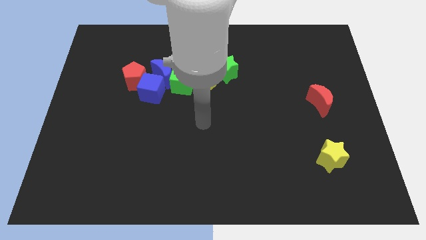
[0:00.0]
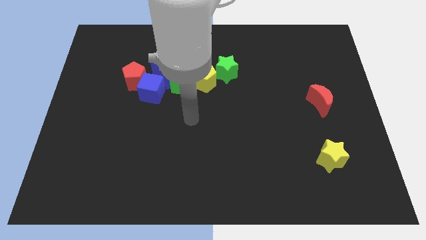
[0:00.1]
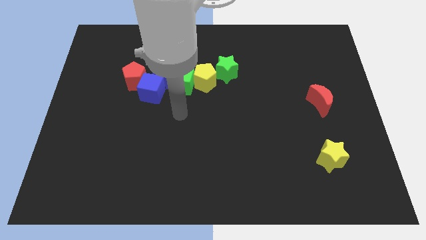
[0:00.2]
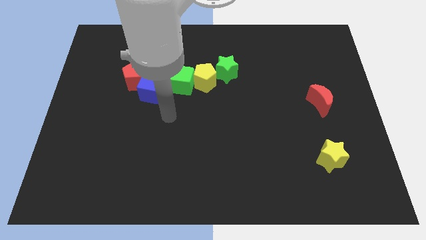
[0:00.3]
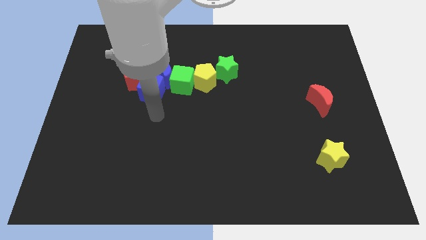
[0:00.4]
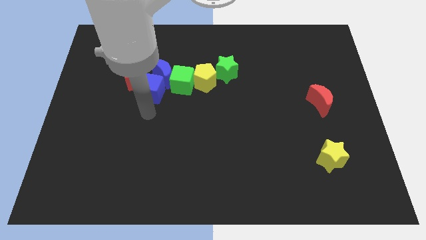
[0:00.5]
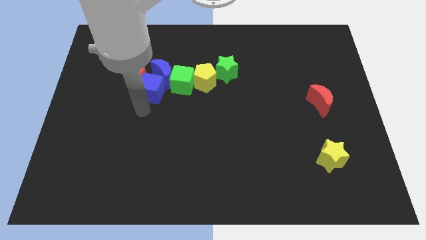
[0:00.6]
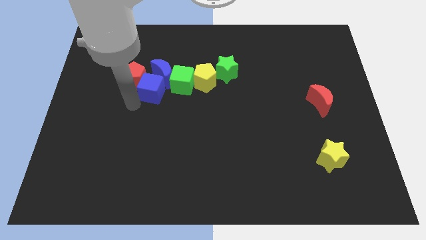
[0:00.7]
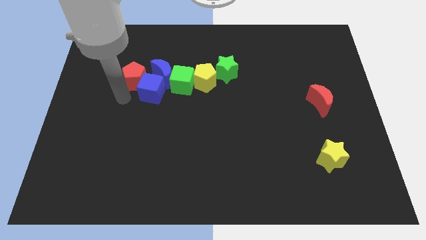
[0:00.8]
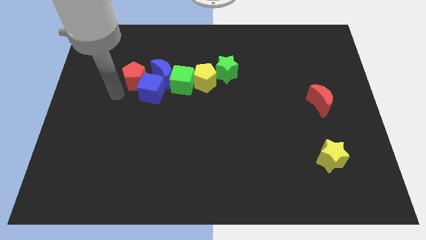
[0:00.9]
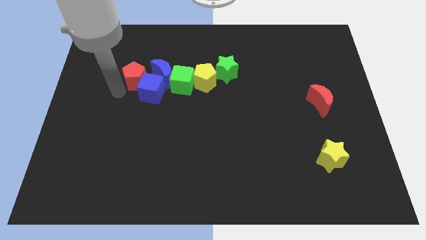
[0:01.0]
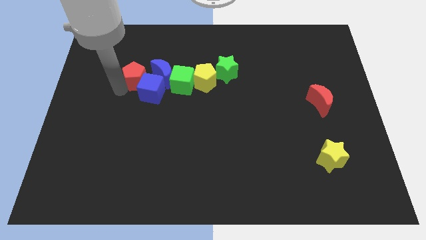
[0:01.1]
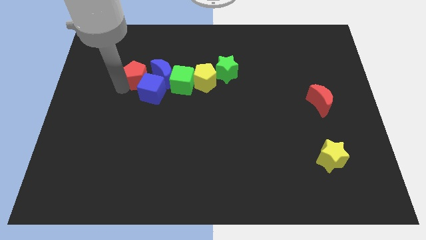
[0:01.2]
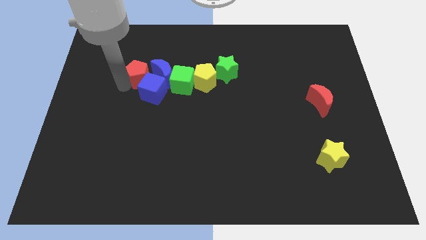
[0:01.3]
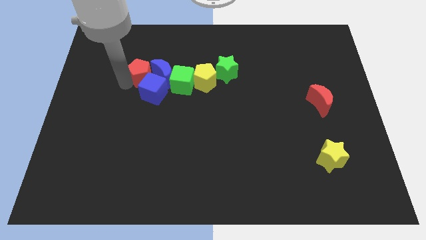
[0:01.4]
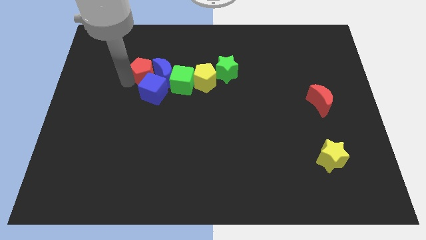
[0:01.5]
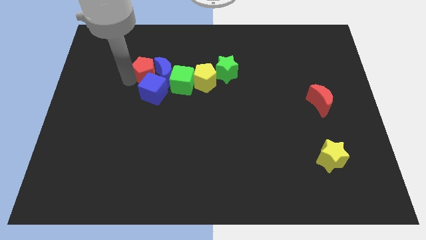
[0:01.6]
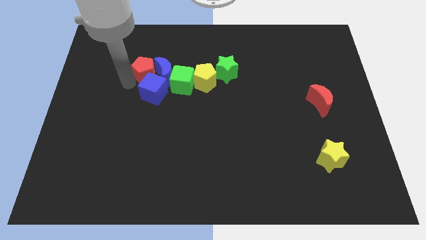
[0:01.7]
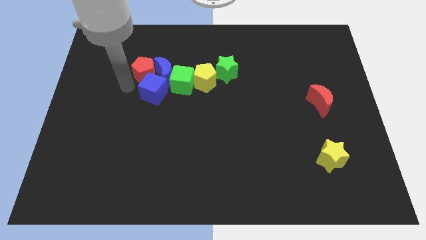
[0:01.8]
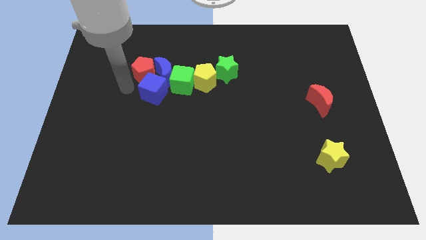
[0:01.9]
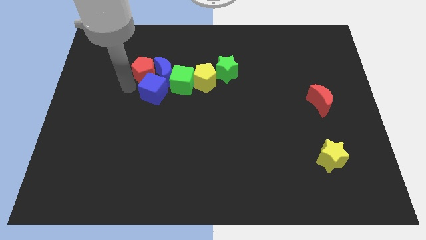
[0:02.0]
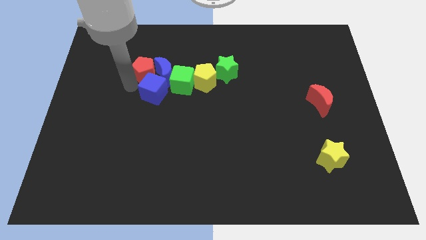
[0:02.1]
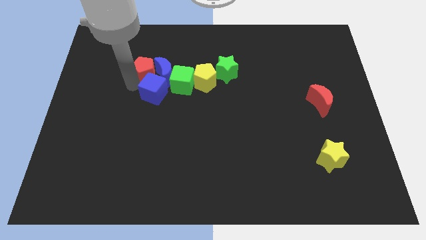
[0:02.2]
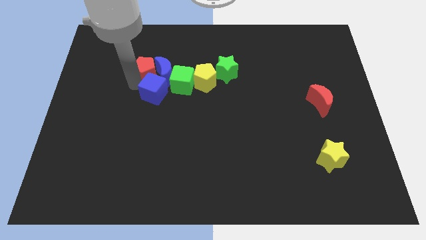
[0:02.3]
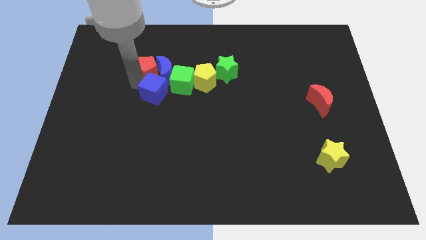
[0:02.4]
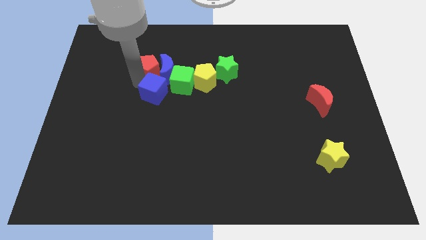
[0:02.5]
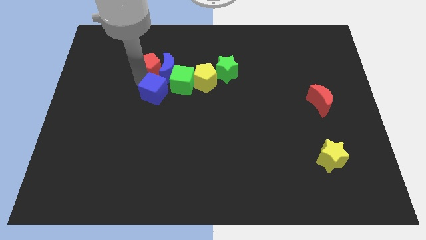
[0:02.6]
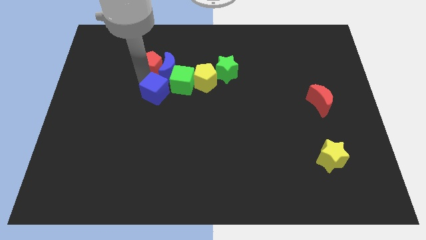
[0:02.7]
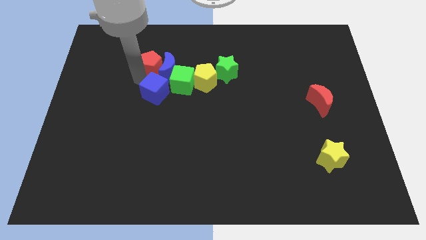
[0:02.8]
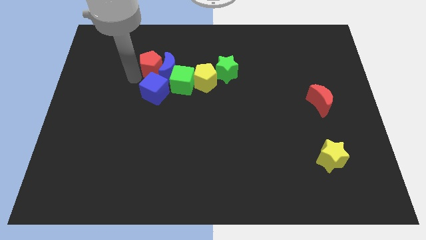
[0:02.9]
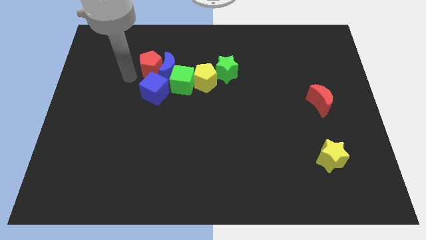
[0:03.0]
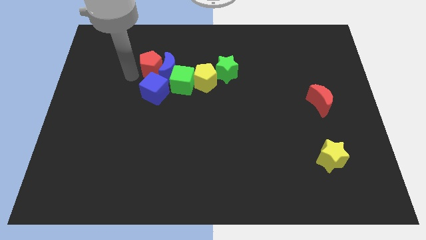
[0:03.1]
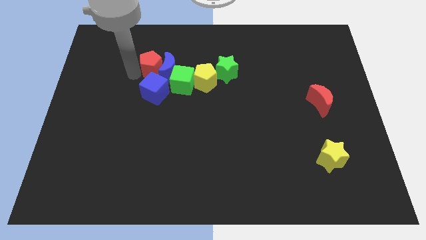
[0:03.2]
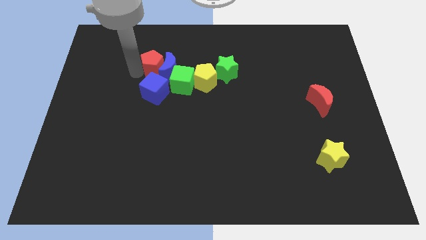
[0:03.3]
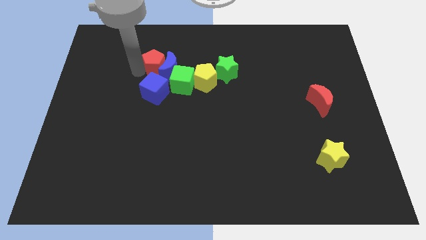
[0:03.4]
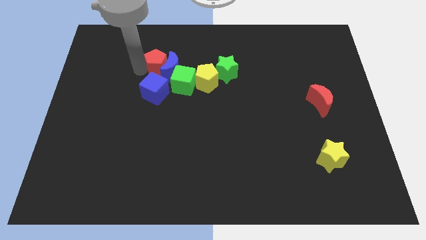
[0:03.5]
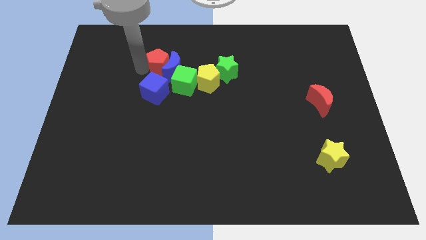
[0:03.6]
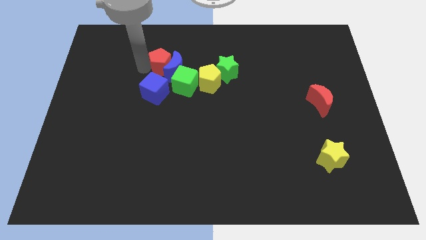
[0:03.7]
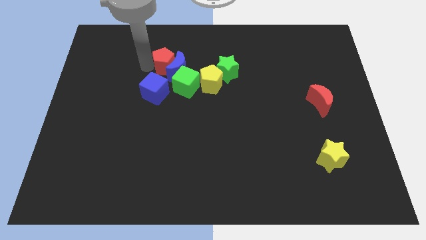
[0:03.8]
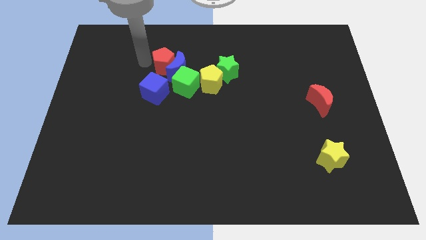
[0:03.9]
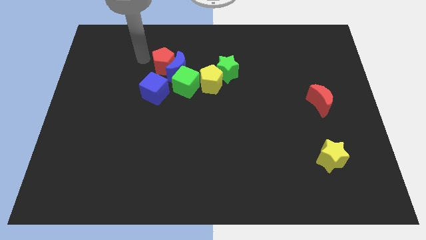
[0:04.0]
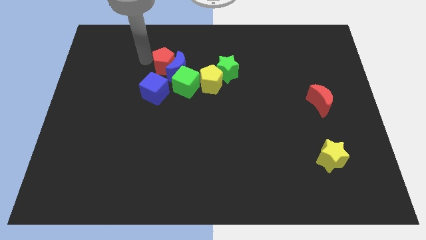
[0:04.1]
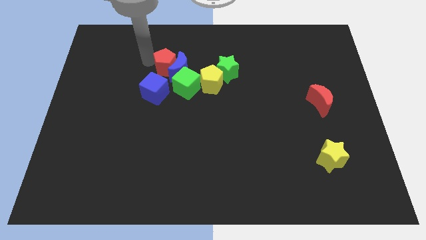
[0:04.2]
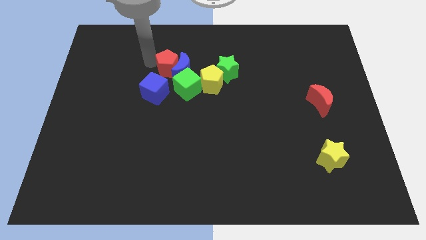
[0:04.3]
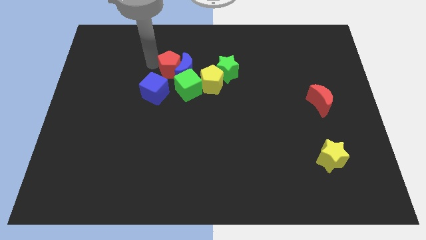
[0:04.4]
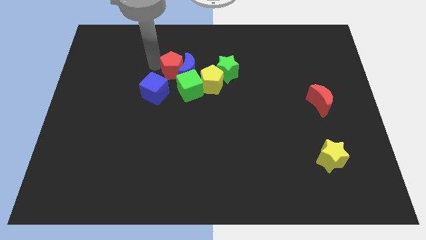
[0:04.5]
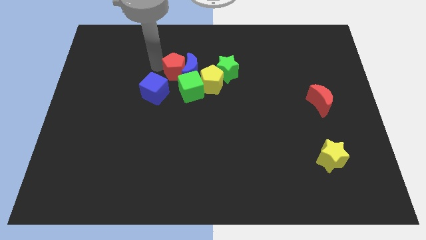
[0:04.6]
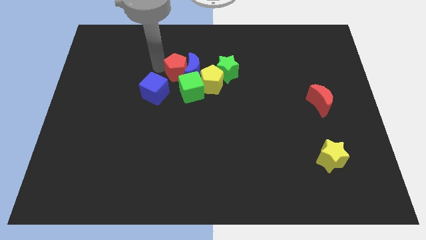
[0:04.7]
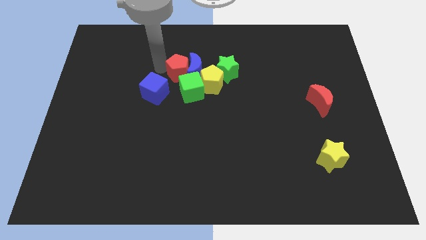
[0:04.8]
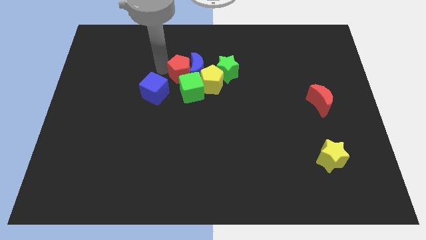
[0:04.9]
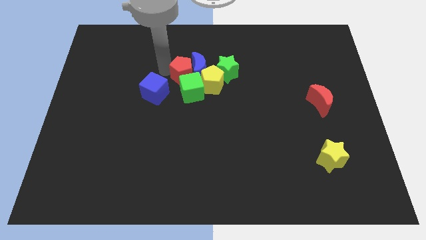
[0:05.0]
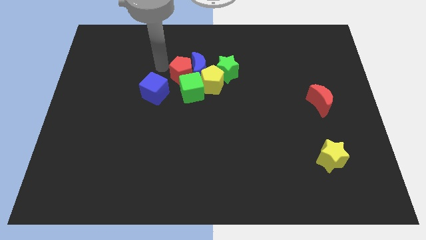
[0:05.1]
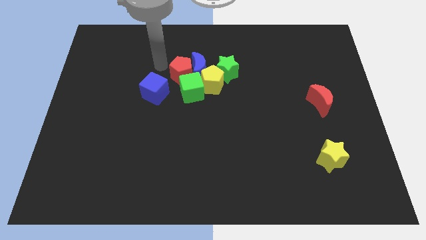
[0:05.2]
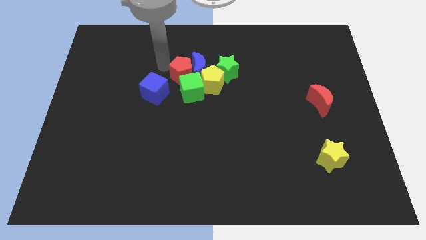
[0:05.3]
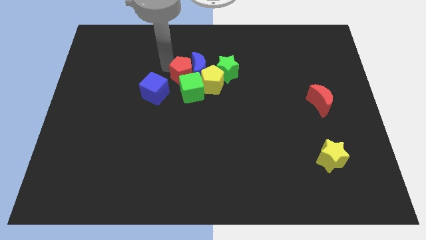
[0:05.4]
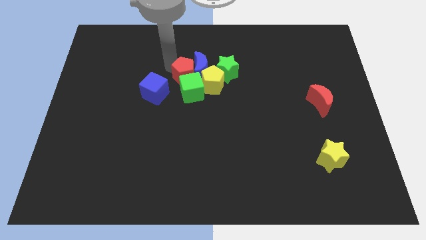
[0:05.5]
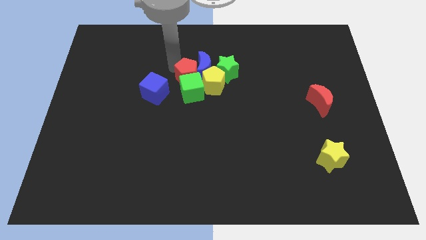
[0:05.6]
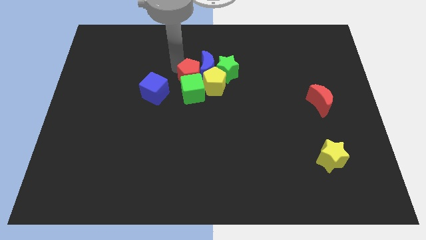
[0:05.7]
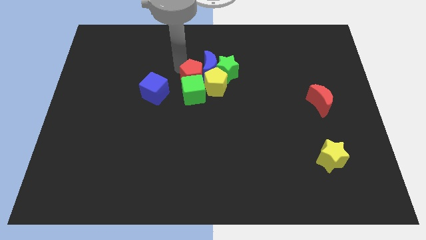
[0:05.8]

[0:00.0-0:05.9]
slide the red pentagon close to the yellow pentagon

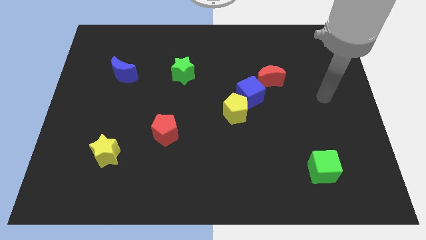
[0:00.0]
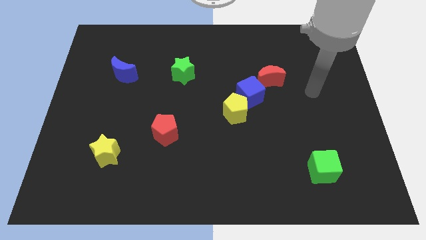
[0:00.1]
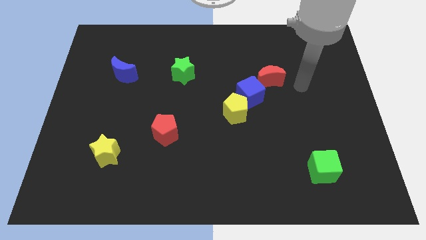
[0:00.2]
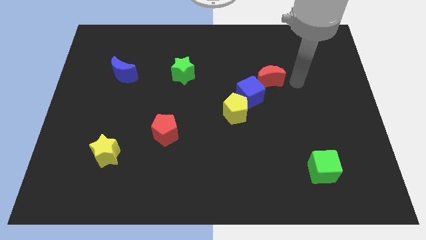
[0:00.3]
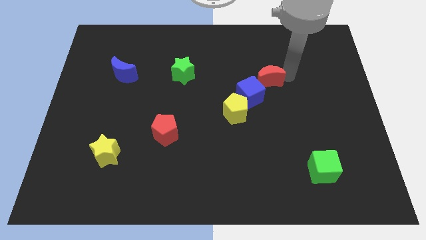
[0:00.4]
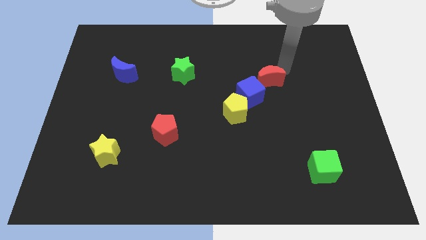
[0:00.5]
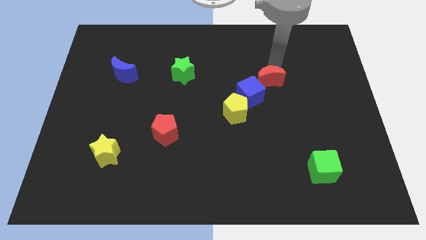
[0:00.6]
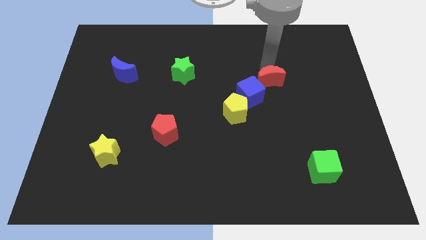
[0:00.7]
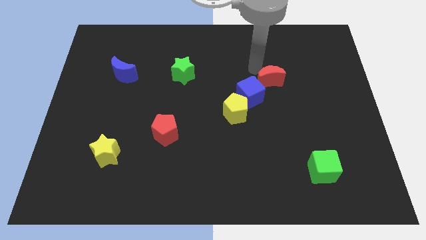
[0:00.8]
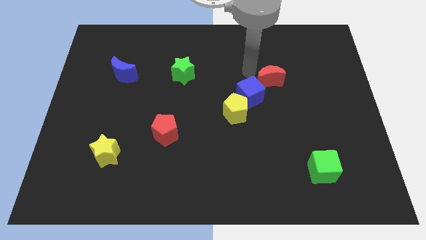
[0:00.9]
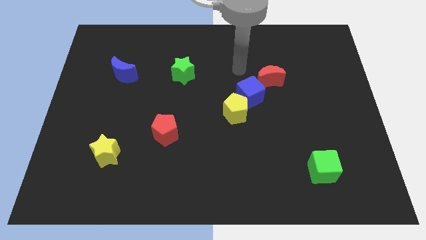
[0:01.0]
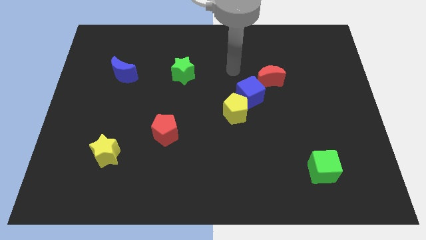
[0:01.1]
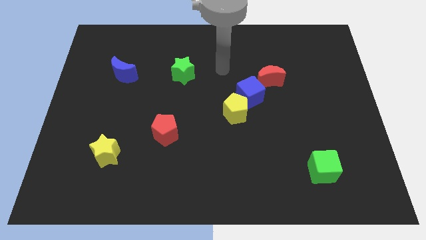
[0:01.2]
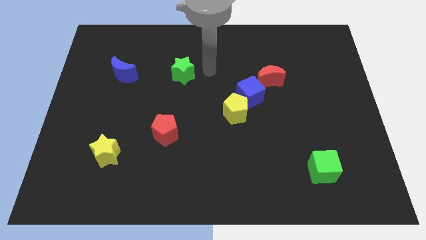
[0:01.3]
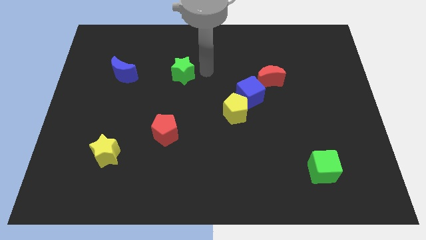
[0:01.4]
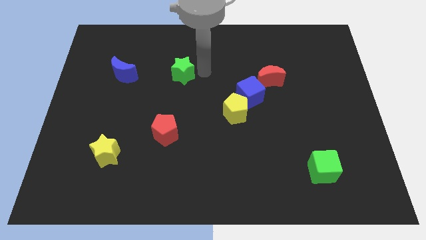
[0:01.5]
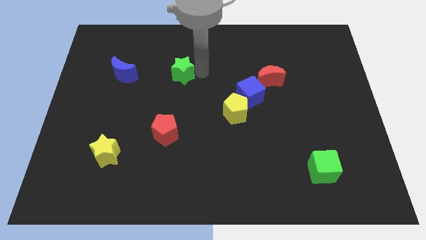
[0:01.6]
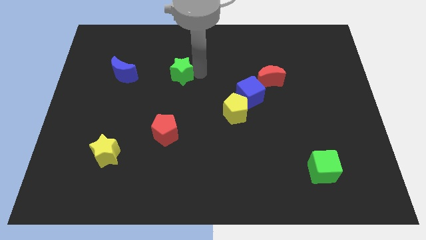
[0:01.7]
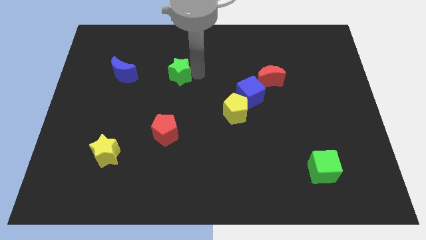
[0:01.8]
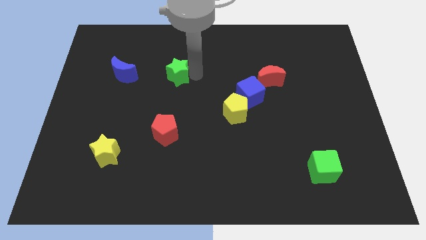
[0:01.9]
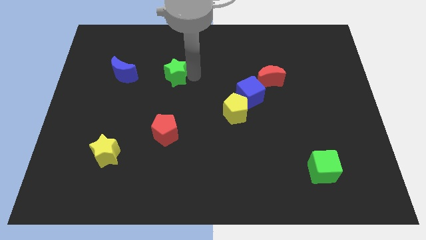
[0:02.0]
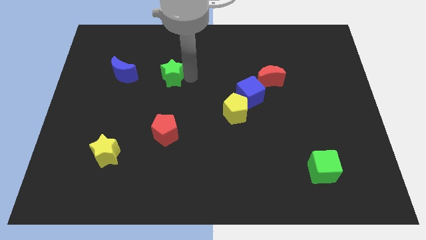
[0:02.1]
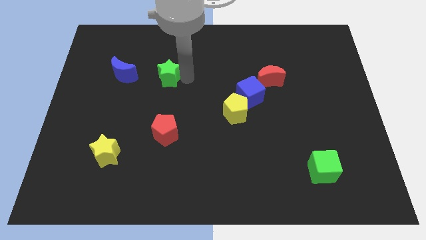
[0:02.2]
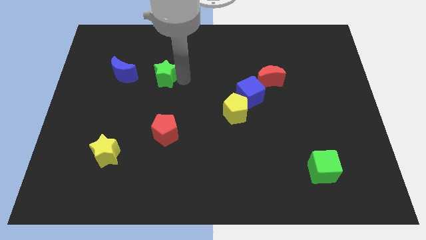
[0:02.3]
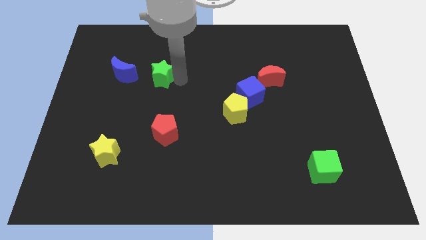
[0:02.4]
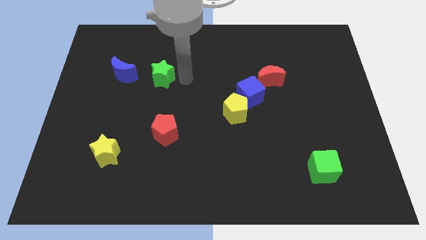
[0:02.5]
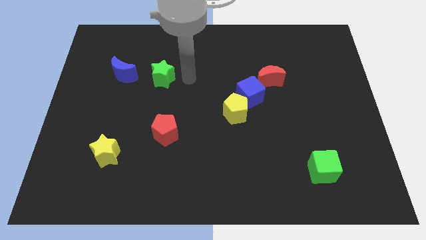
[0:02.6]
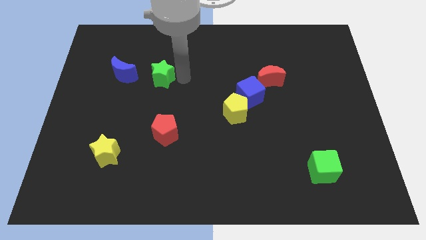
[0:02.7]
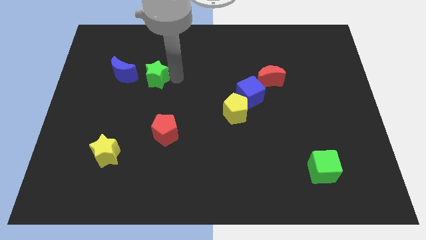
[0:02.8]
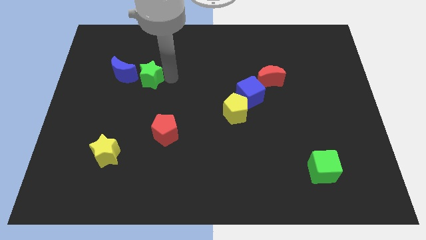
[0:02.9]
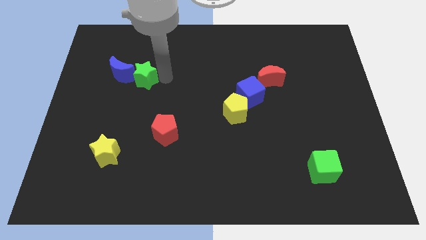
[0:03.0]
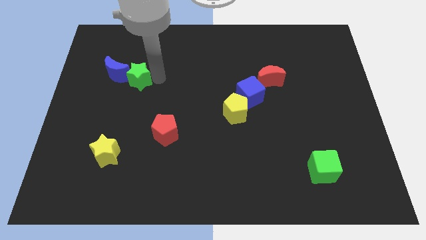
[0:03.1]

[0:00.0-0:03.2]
put the green star to the blue moon

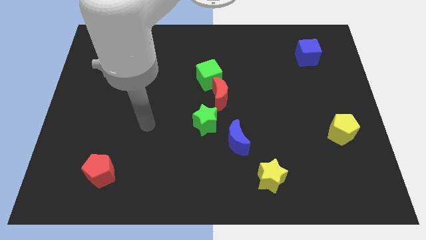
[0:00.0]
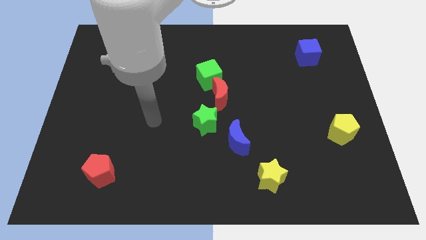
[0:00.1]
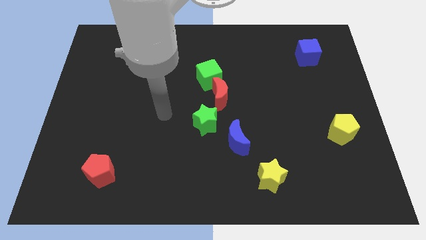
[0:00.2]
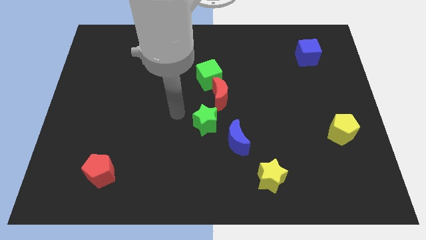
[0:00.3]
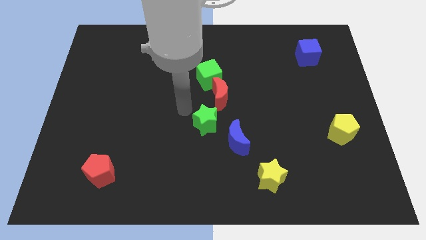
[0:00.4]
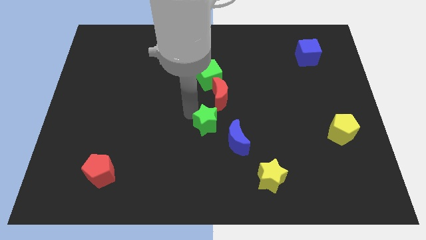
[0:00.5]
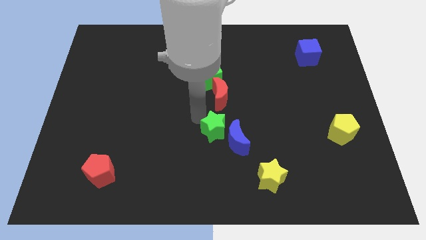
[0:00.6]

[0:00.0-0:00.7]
push the green star next to the blue moon
